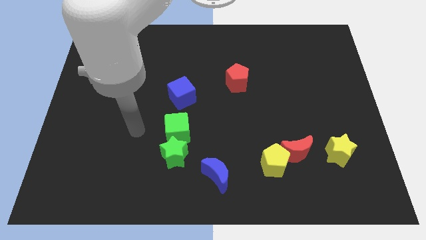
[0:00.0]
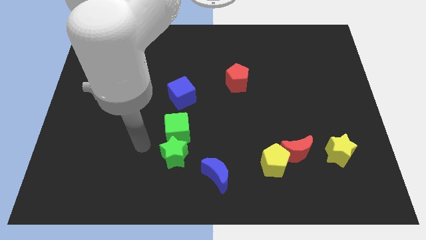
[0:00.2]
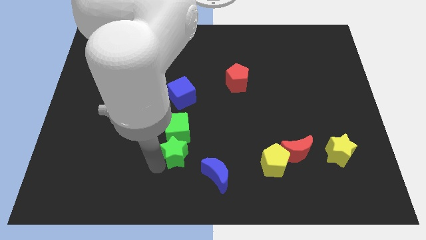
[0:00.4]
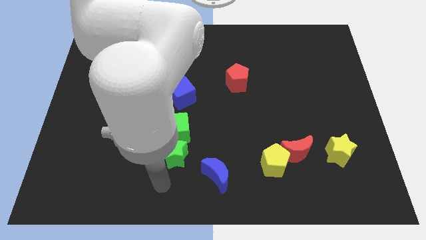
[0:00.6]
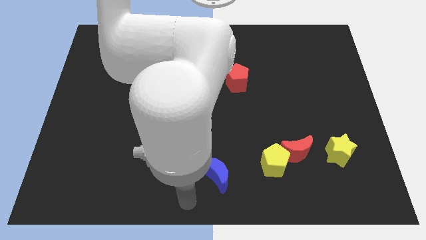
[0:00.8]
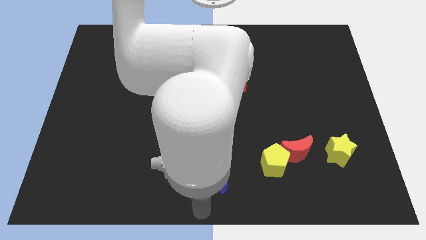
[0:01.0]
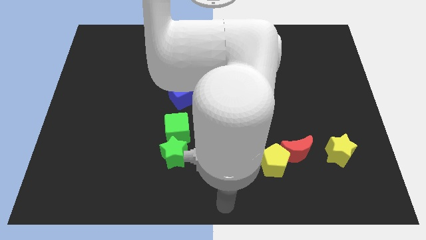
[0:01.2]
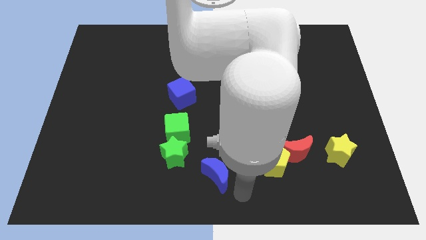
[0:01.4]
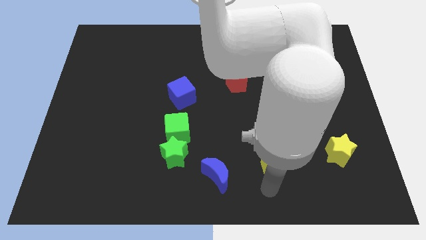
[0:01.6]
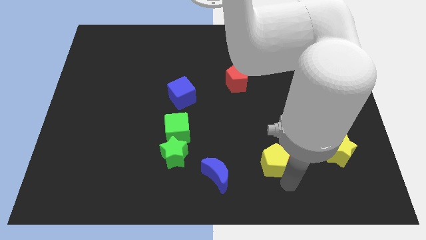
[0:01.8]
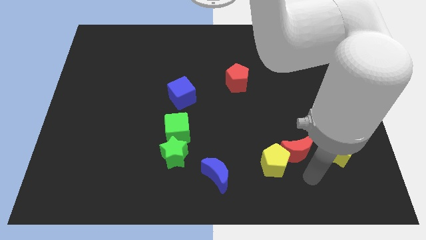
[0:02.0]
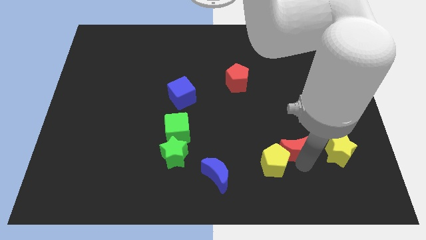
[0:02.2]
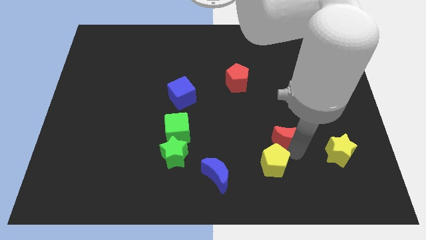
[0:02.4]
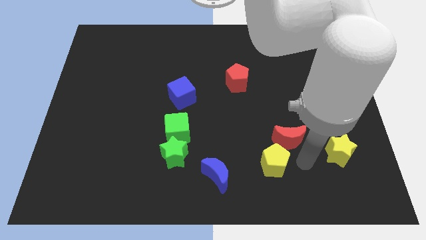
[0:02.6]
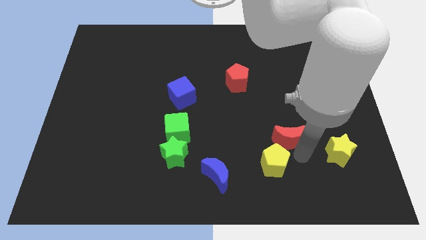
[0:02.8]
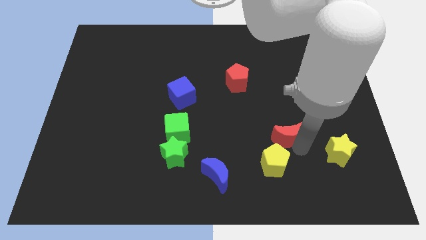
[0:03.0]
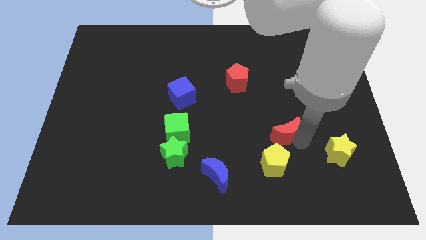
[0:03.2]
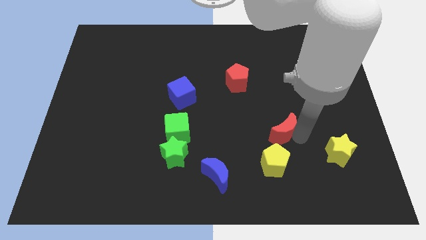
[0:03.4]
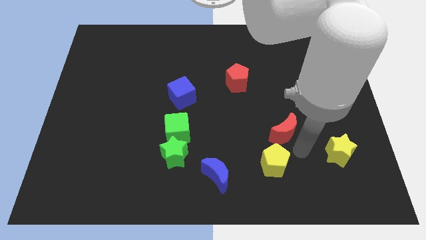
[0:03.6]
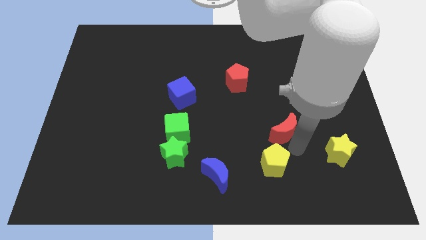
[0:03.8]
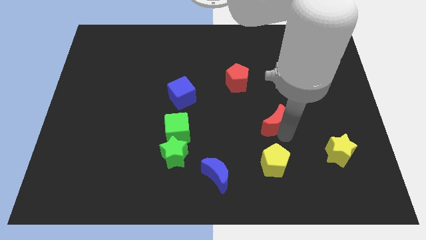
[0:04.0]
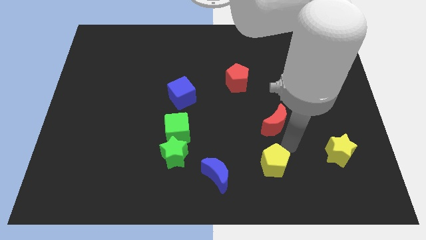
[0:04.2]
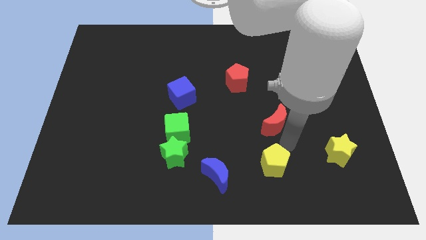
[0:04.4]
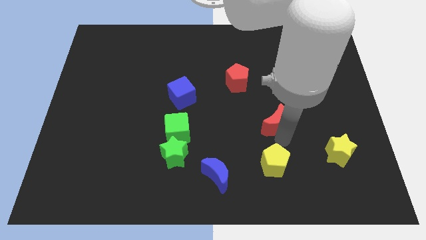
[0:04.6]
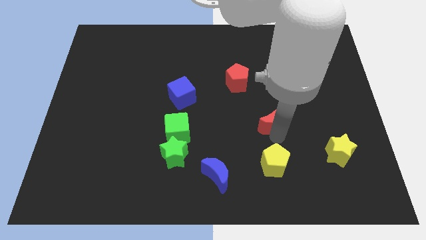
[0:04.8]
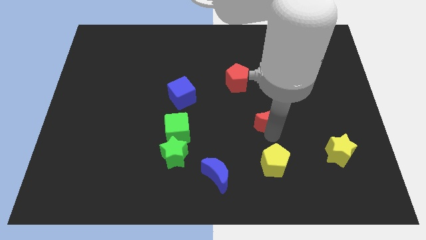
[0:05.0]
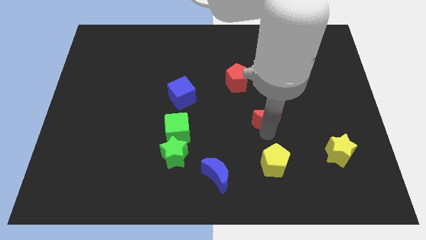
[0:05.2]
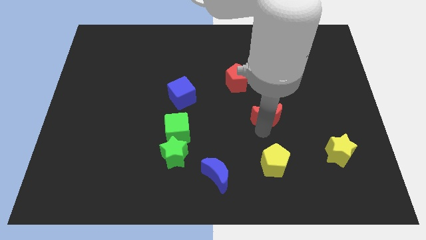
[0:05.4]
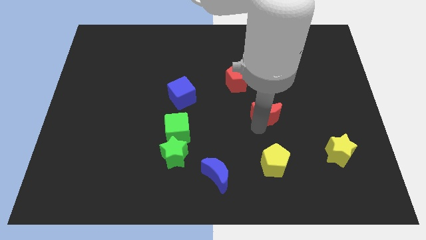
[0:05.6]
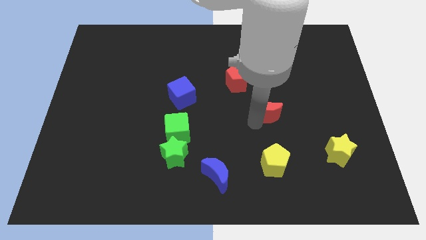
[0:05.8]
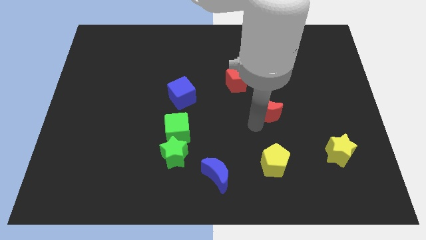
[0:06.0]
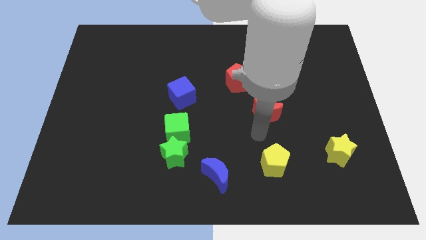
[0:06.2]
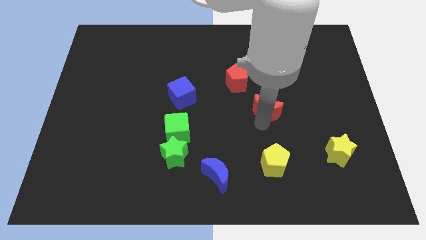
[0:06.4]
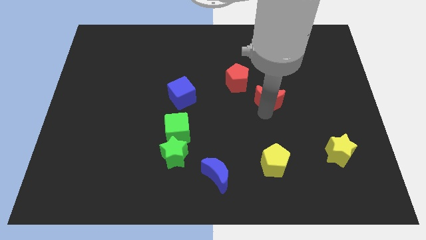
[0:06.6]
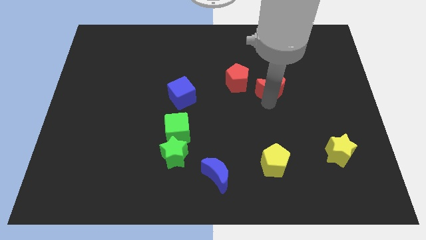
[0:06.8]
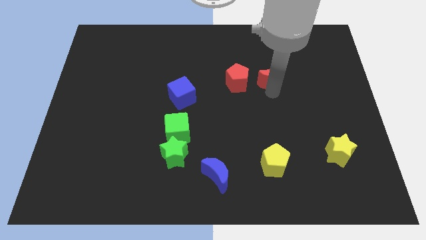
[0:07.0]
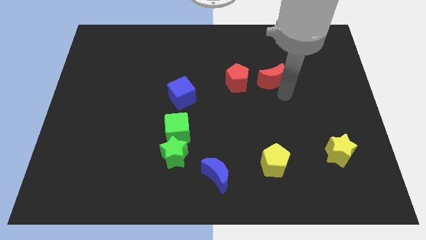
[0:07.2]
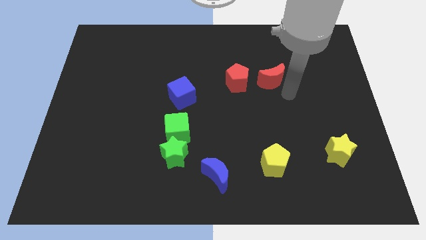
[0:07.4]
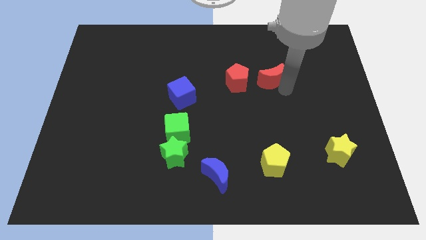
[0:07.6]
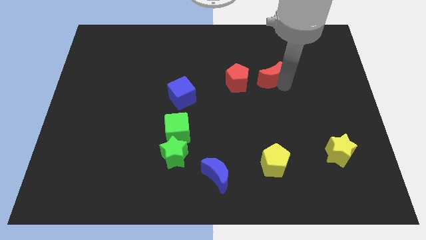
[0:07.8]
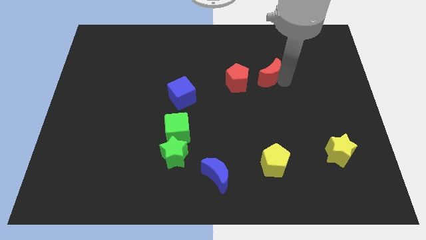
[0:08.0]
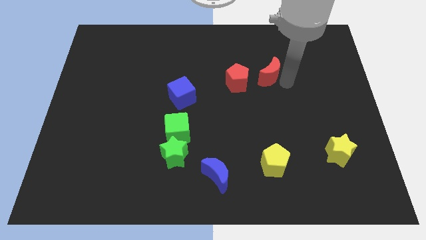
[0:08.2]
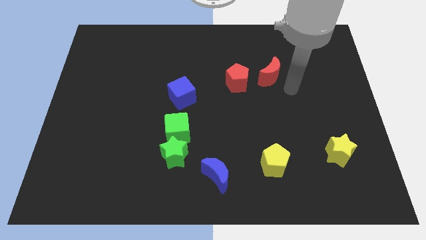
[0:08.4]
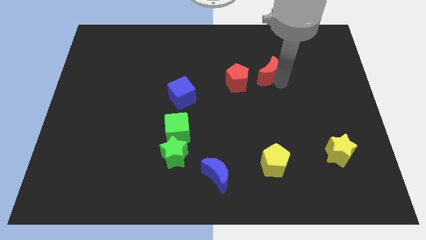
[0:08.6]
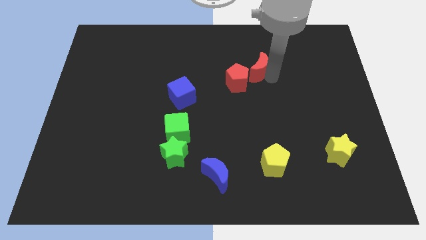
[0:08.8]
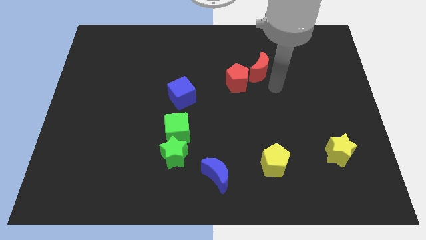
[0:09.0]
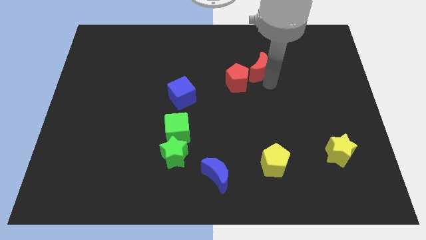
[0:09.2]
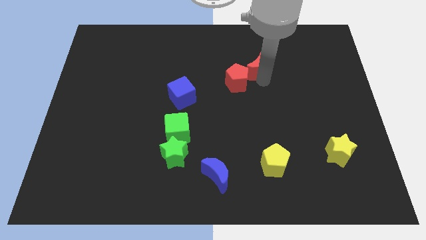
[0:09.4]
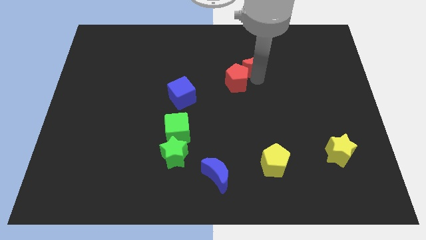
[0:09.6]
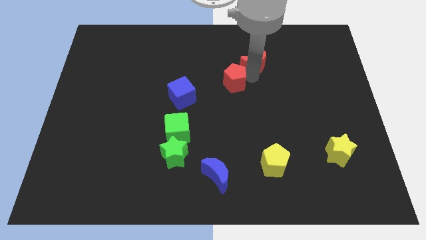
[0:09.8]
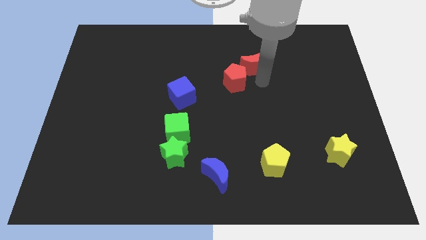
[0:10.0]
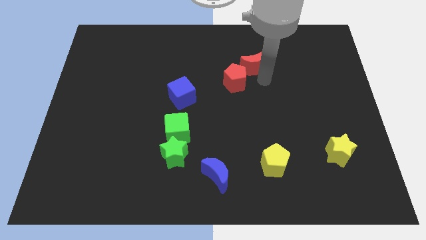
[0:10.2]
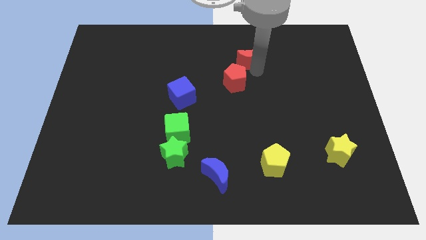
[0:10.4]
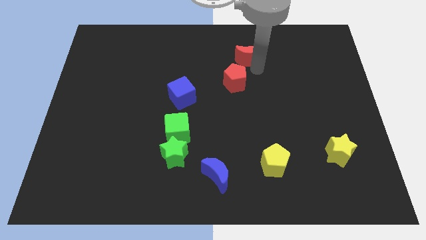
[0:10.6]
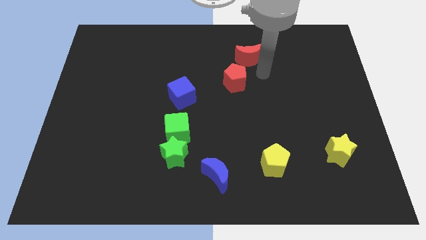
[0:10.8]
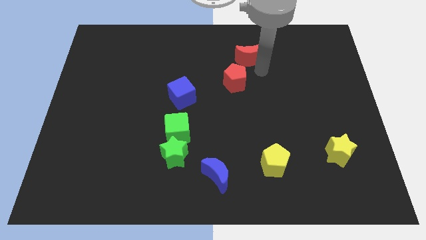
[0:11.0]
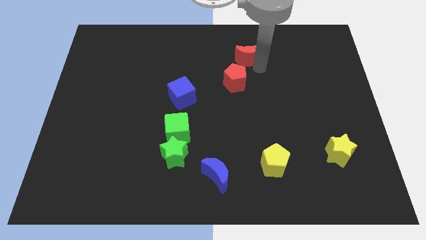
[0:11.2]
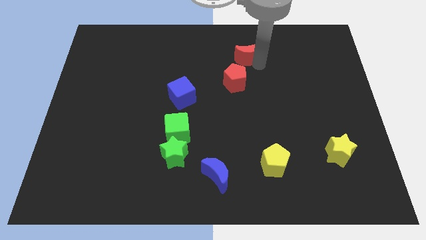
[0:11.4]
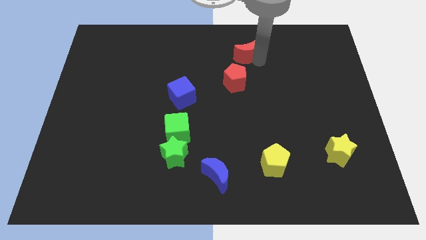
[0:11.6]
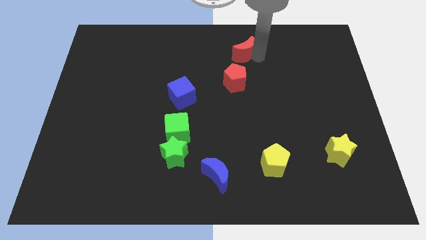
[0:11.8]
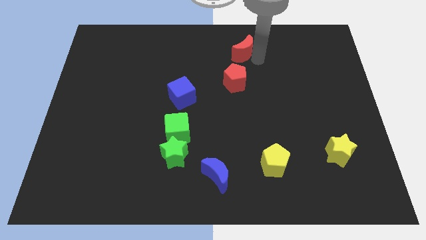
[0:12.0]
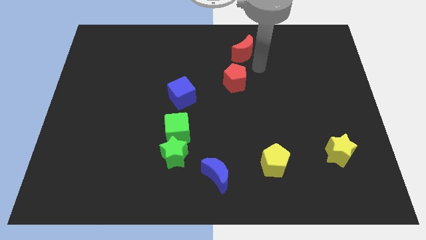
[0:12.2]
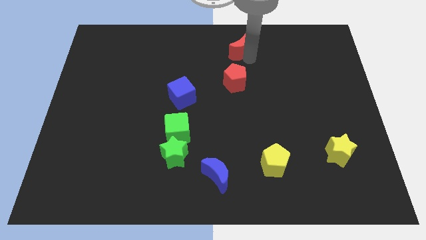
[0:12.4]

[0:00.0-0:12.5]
push the red moon to the top side
